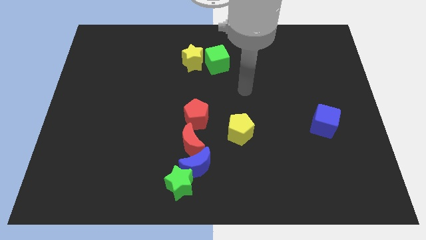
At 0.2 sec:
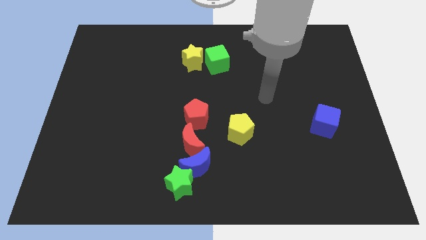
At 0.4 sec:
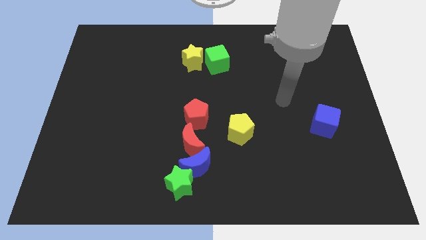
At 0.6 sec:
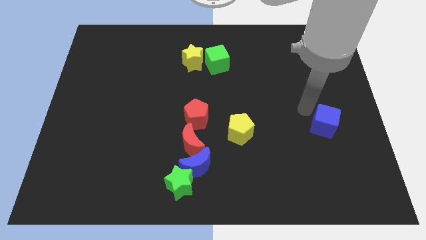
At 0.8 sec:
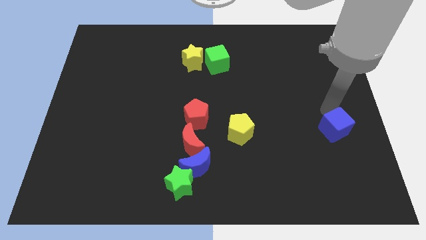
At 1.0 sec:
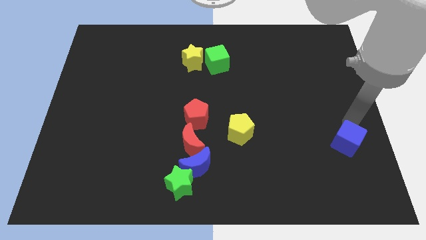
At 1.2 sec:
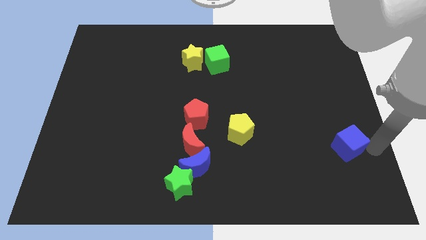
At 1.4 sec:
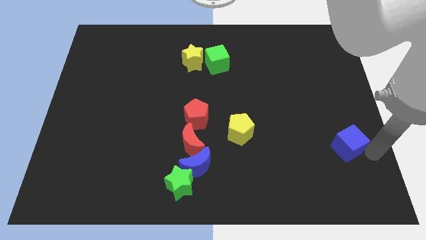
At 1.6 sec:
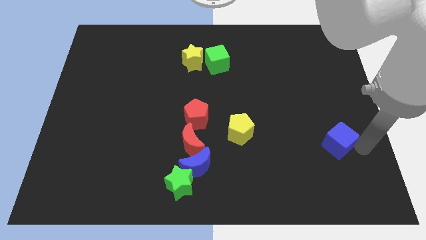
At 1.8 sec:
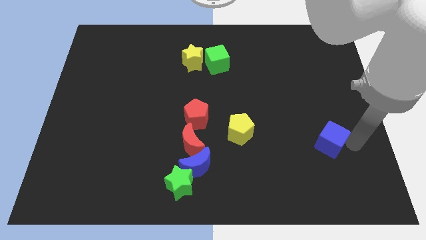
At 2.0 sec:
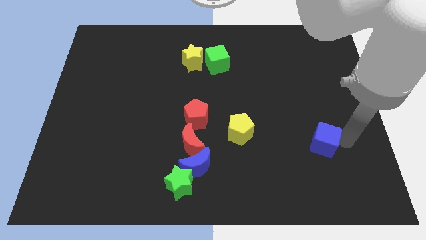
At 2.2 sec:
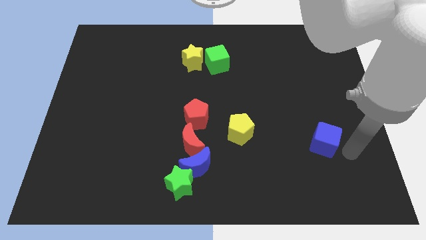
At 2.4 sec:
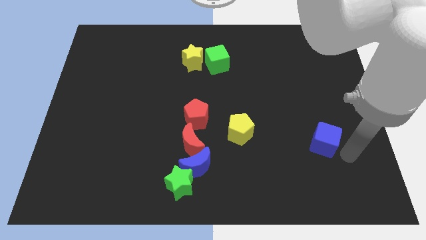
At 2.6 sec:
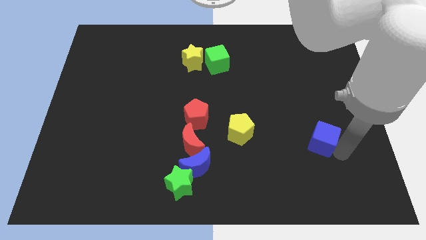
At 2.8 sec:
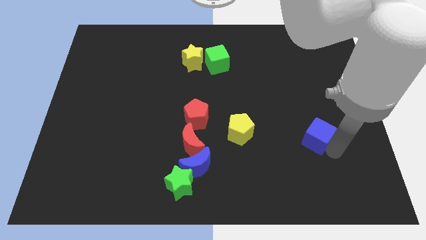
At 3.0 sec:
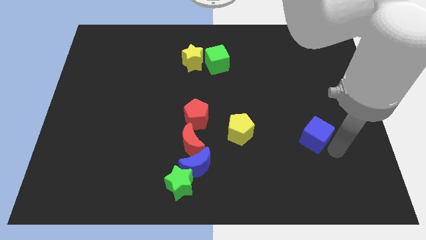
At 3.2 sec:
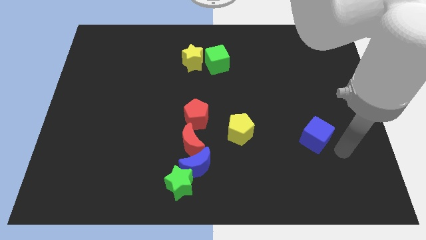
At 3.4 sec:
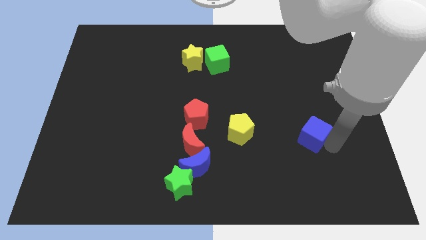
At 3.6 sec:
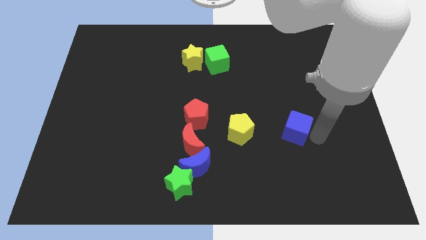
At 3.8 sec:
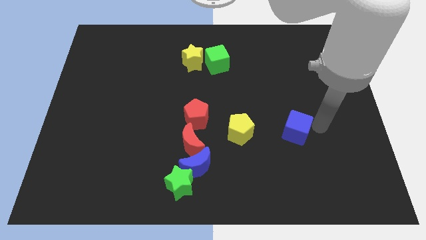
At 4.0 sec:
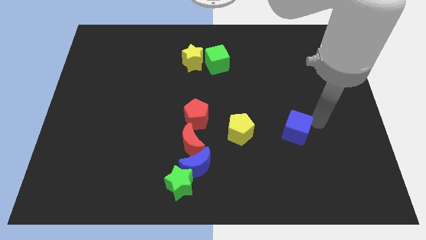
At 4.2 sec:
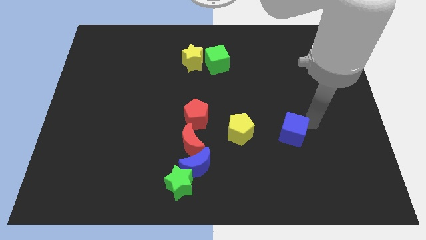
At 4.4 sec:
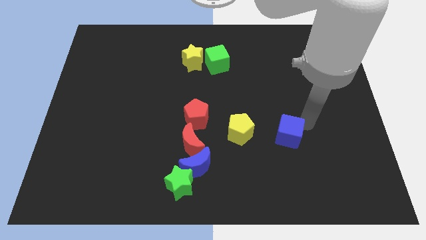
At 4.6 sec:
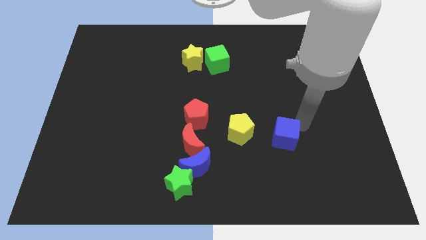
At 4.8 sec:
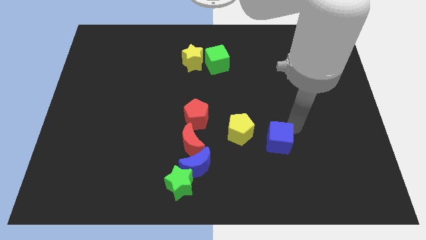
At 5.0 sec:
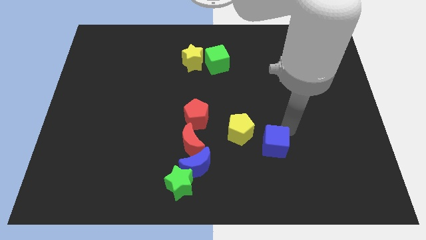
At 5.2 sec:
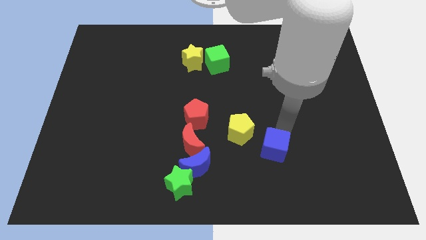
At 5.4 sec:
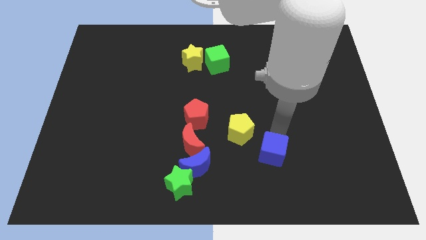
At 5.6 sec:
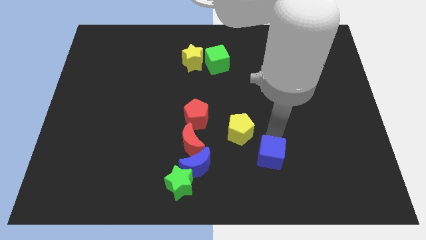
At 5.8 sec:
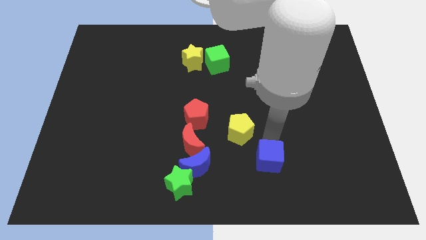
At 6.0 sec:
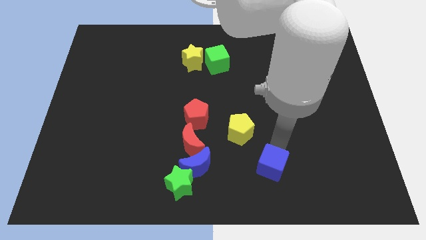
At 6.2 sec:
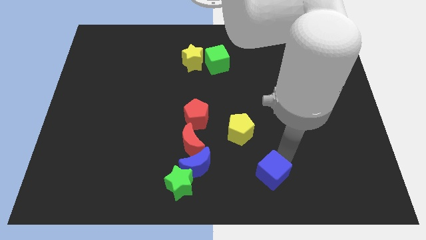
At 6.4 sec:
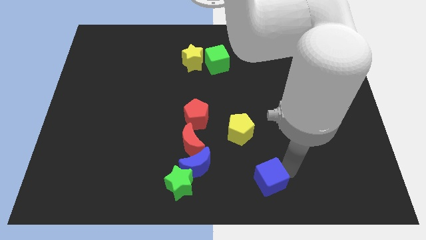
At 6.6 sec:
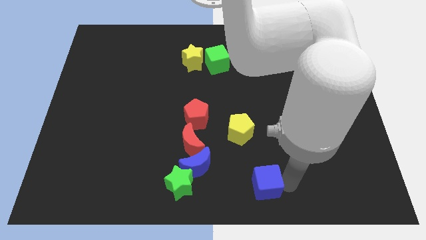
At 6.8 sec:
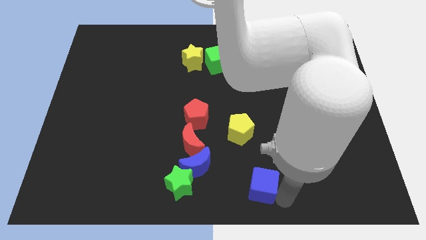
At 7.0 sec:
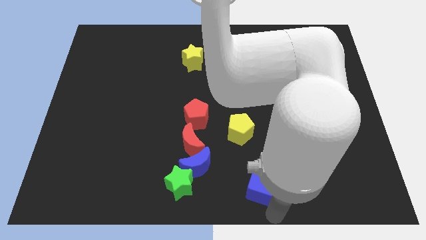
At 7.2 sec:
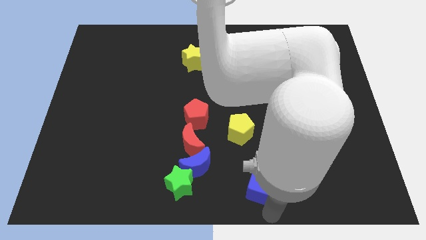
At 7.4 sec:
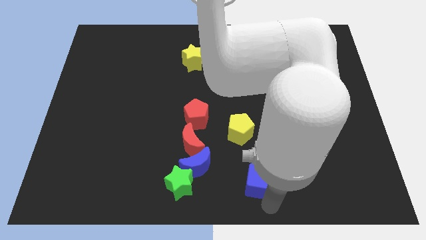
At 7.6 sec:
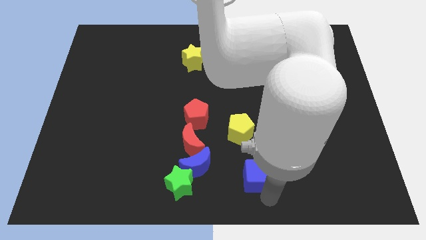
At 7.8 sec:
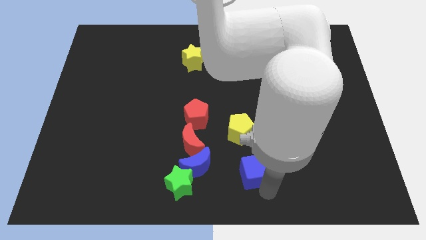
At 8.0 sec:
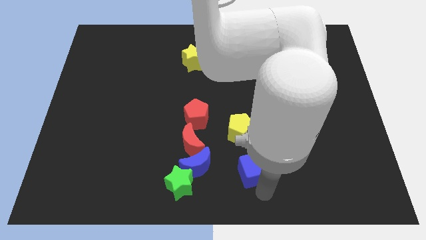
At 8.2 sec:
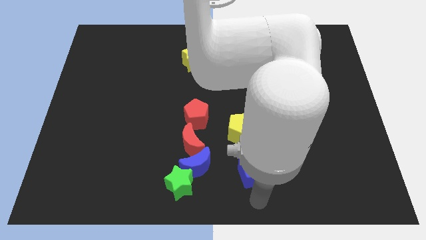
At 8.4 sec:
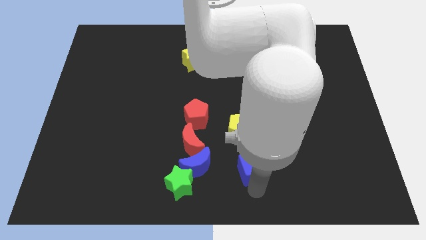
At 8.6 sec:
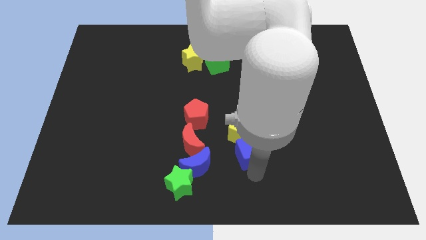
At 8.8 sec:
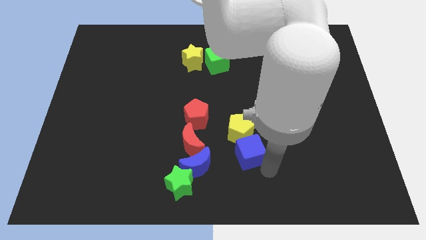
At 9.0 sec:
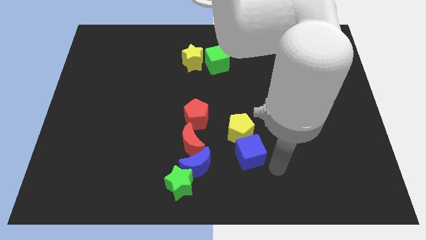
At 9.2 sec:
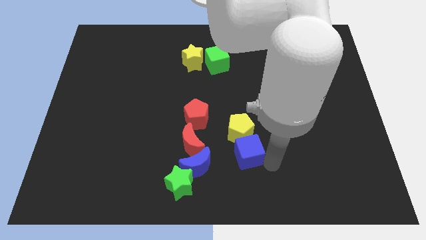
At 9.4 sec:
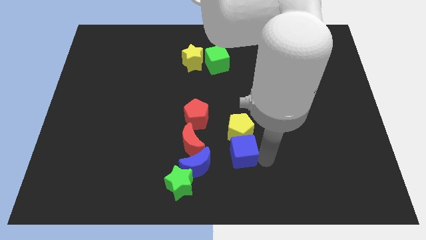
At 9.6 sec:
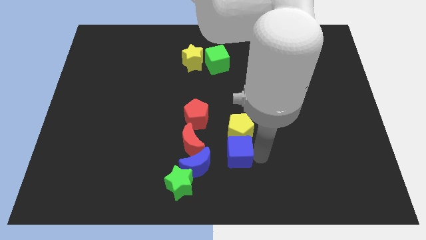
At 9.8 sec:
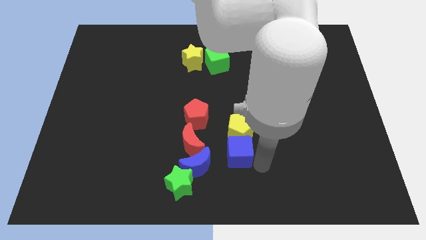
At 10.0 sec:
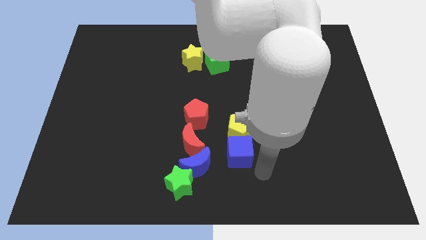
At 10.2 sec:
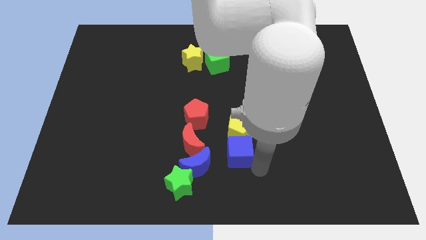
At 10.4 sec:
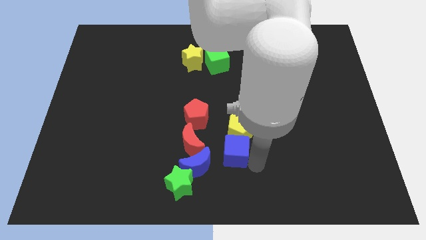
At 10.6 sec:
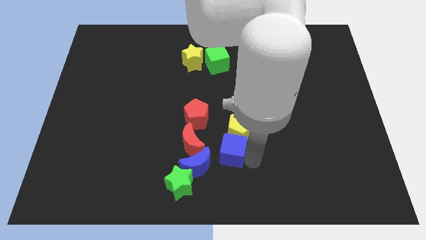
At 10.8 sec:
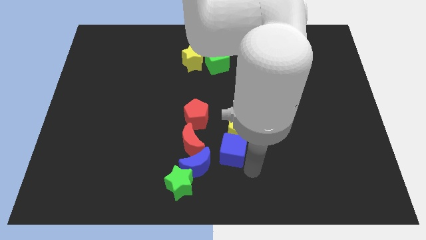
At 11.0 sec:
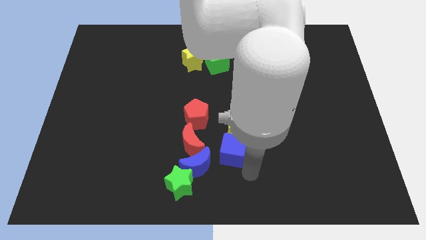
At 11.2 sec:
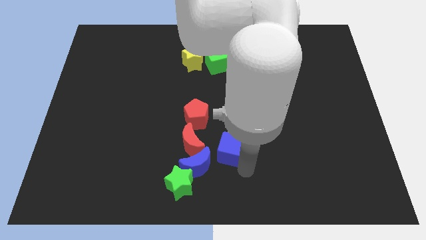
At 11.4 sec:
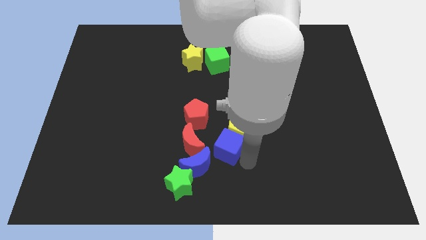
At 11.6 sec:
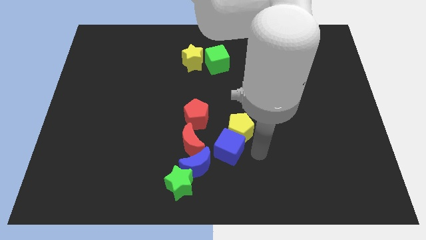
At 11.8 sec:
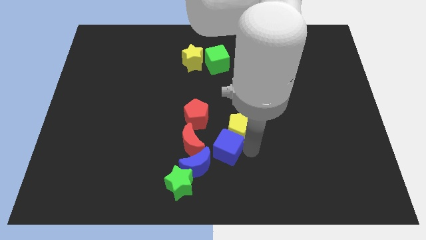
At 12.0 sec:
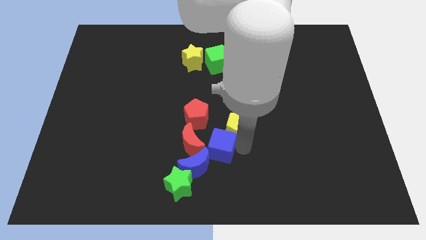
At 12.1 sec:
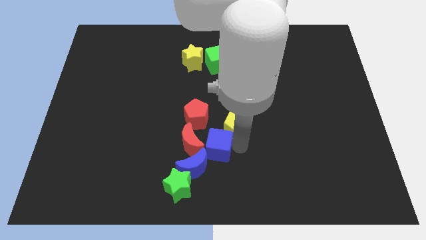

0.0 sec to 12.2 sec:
put the blue cube next to the red moon

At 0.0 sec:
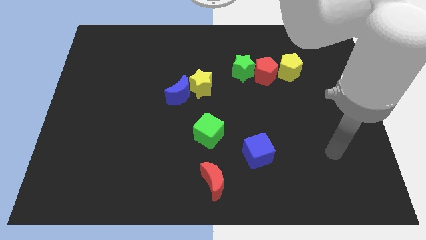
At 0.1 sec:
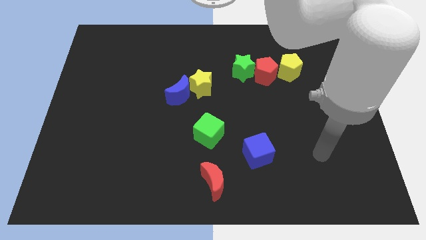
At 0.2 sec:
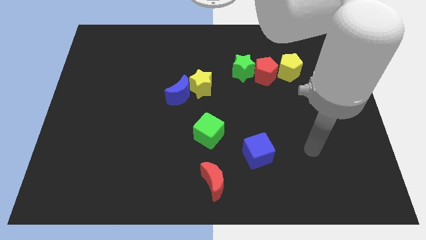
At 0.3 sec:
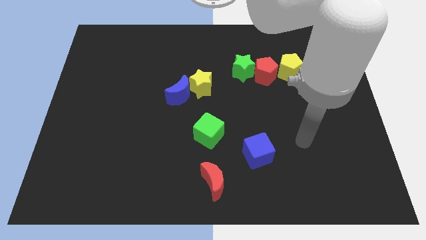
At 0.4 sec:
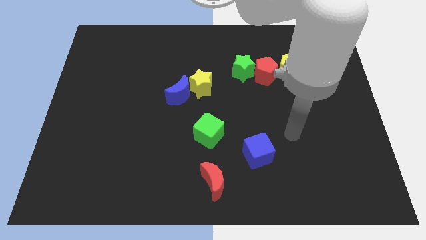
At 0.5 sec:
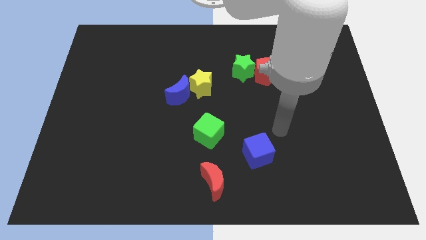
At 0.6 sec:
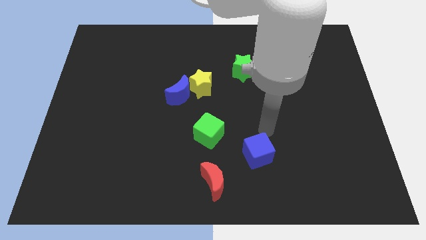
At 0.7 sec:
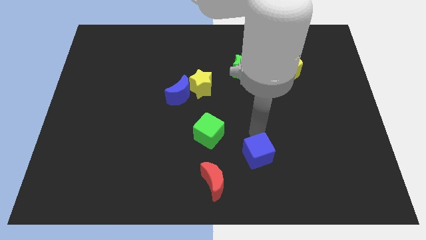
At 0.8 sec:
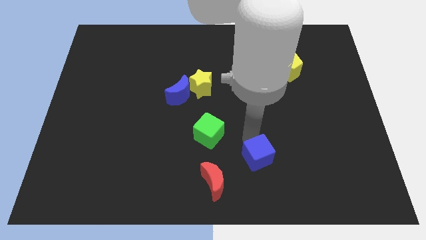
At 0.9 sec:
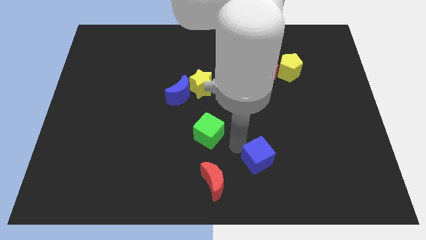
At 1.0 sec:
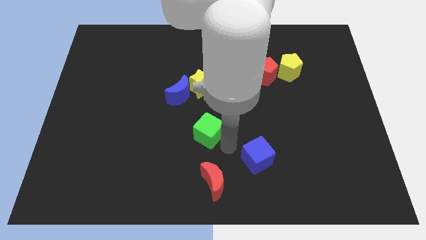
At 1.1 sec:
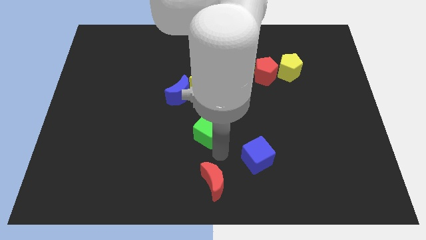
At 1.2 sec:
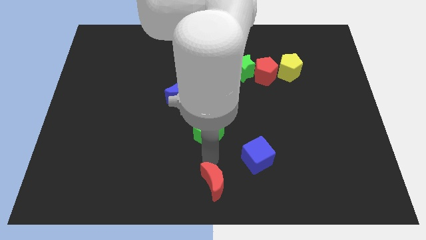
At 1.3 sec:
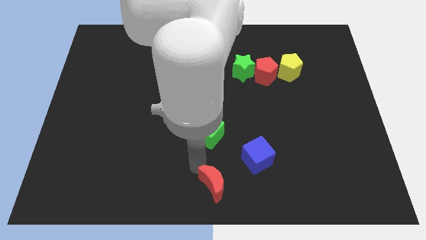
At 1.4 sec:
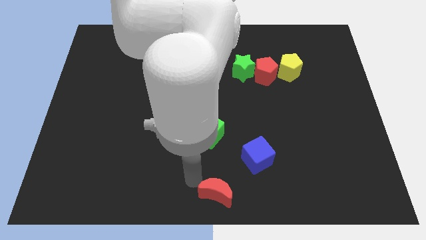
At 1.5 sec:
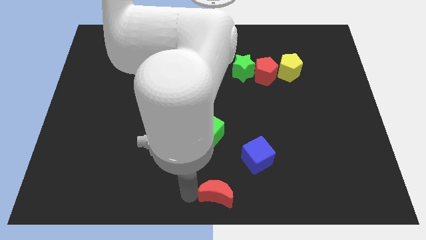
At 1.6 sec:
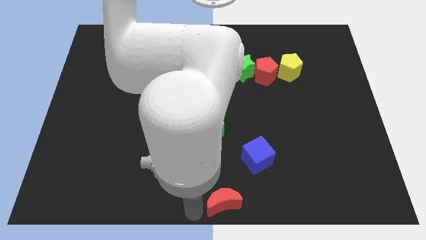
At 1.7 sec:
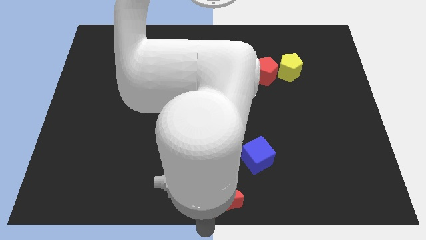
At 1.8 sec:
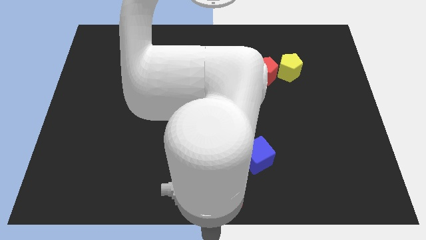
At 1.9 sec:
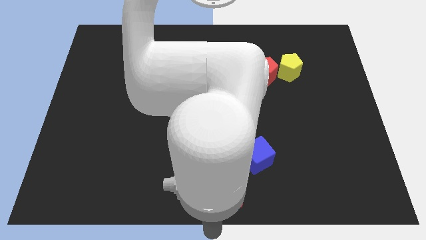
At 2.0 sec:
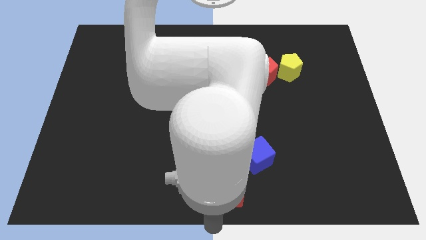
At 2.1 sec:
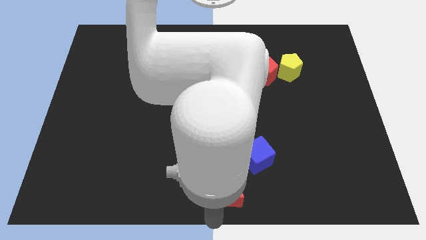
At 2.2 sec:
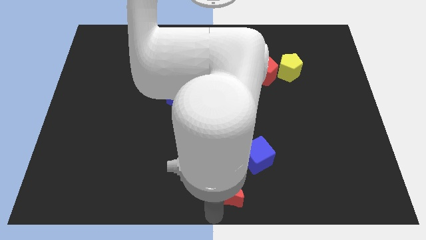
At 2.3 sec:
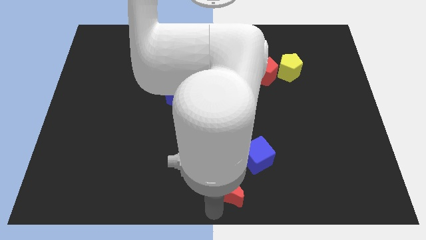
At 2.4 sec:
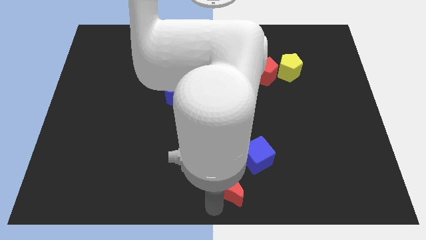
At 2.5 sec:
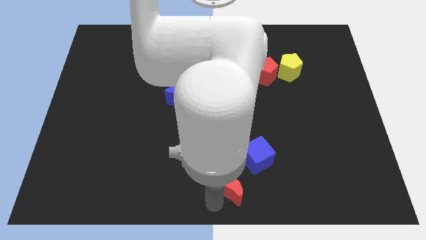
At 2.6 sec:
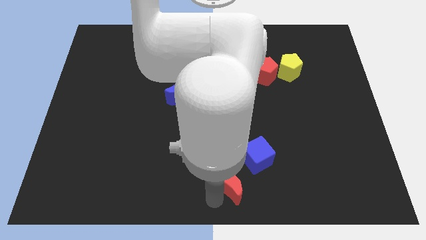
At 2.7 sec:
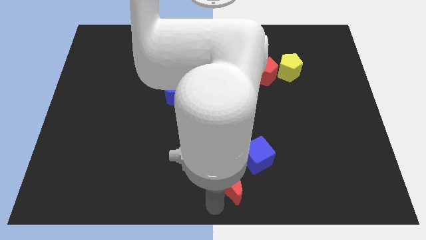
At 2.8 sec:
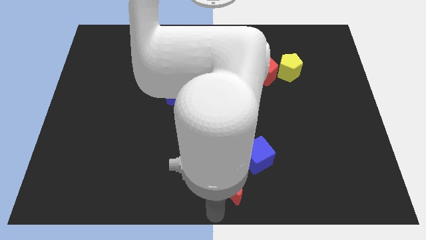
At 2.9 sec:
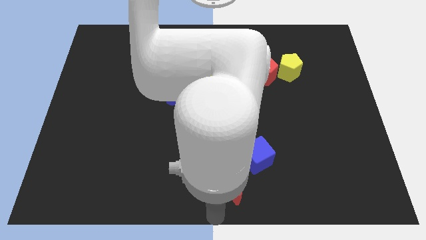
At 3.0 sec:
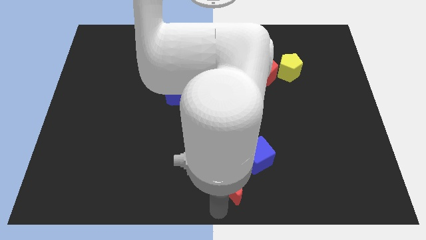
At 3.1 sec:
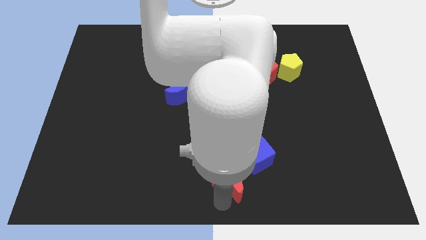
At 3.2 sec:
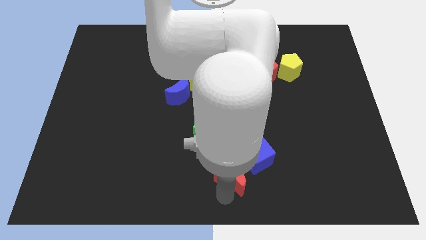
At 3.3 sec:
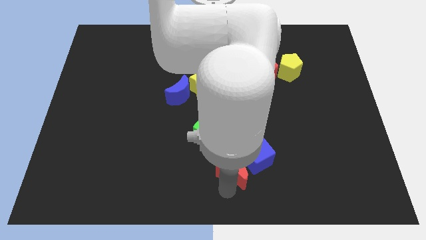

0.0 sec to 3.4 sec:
push the red moon close to the blue cube
